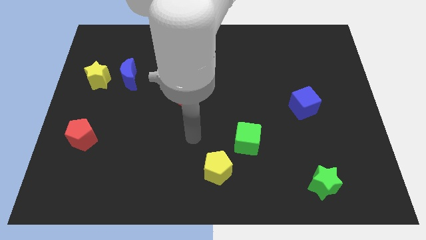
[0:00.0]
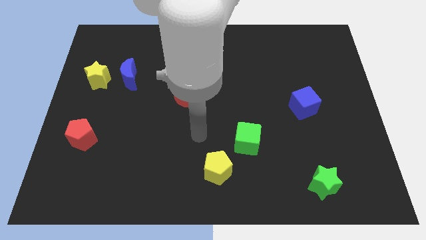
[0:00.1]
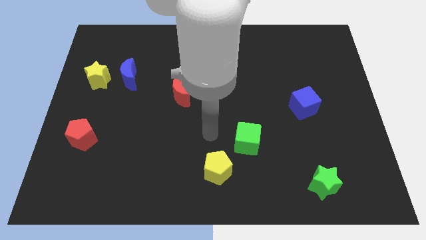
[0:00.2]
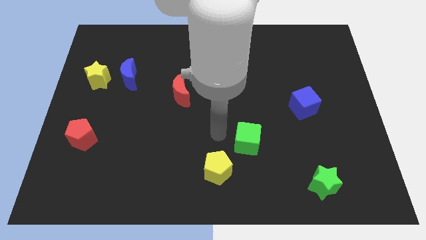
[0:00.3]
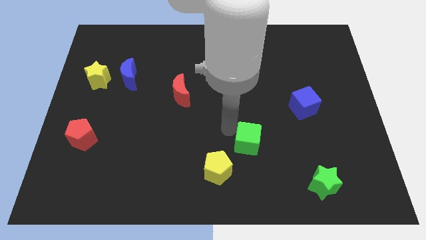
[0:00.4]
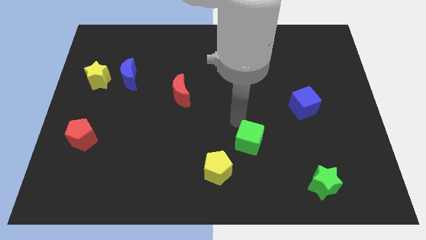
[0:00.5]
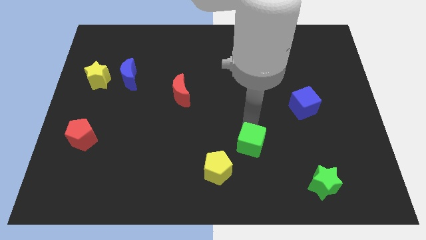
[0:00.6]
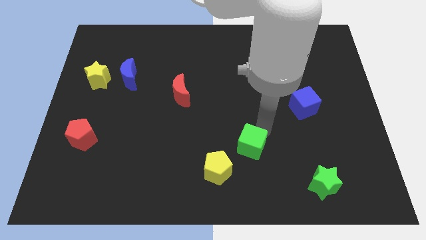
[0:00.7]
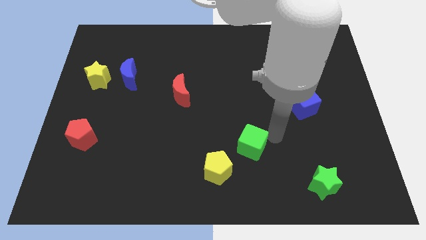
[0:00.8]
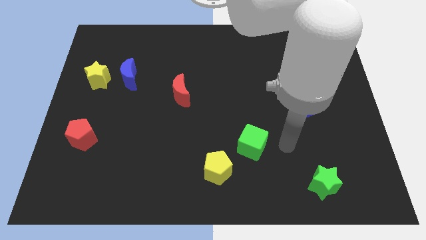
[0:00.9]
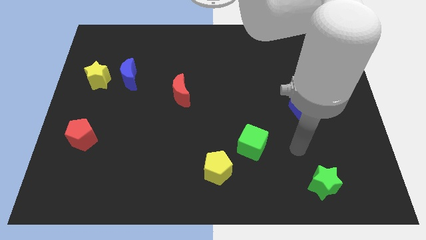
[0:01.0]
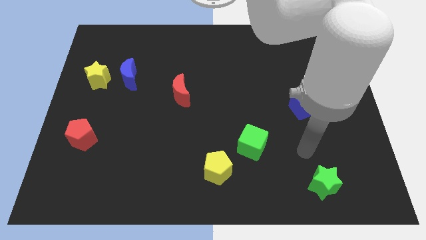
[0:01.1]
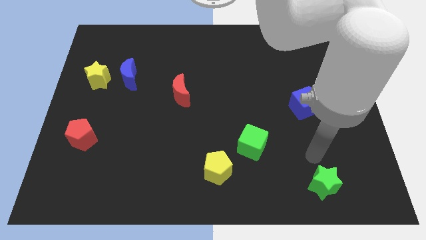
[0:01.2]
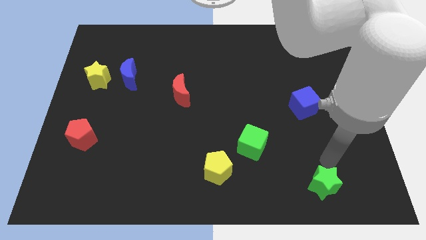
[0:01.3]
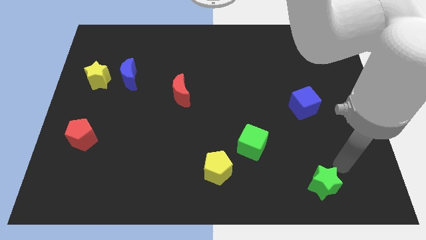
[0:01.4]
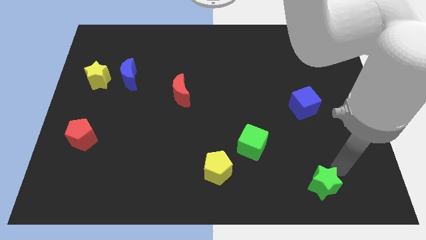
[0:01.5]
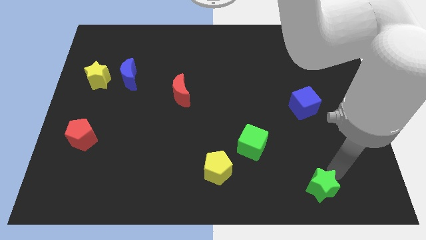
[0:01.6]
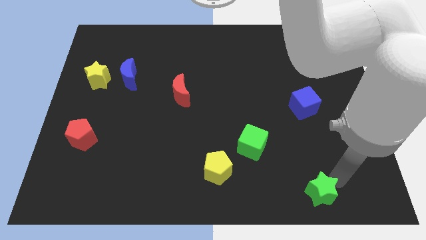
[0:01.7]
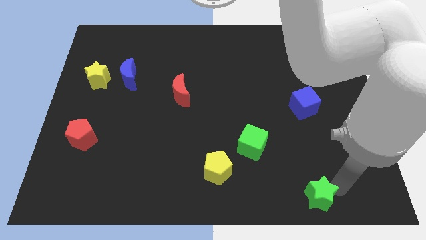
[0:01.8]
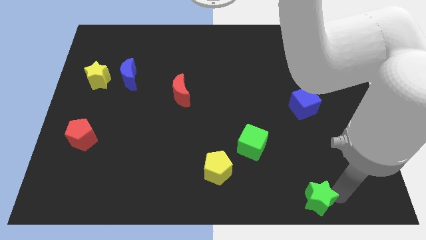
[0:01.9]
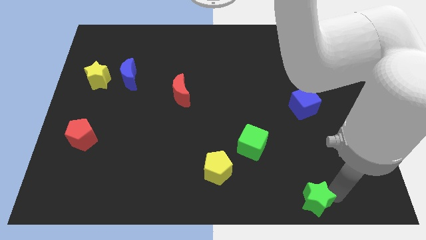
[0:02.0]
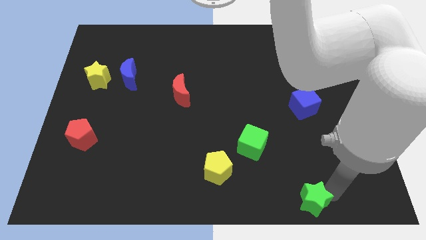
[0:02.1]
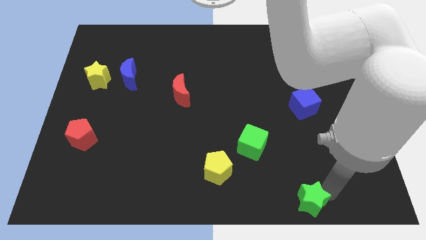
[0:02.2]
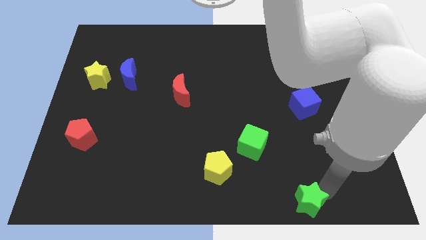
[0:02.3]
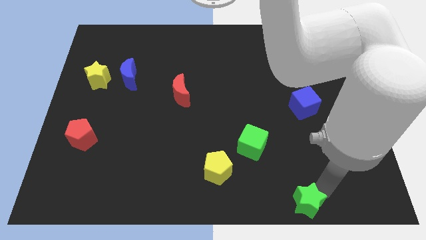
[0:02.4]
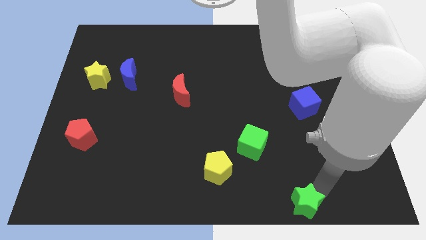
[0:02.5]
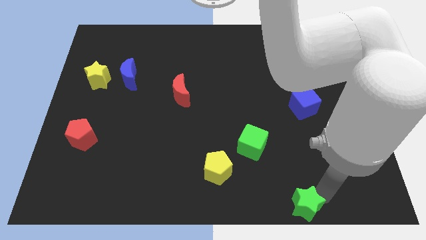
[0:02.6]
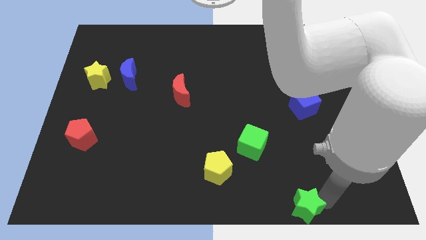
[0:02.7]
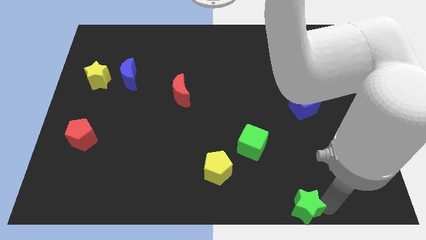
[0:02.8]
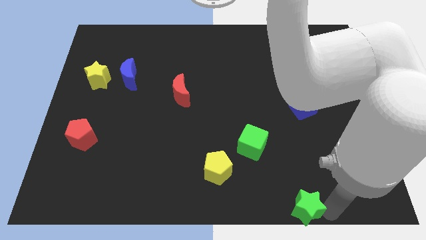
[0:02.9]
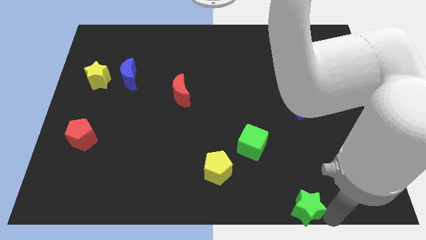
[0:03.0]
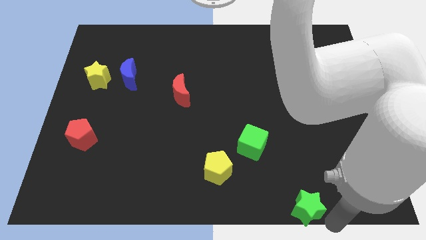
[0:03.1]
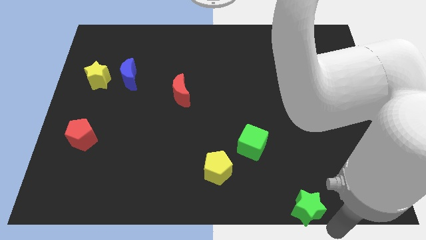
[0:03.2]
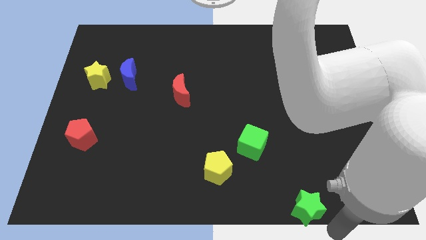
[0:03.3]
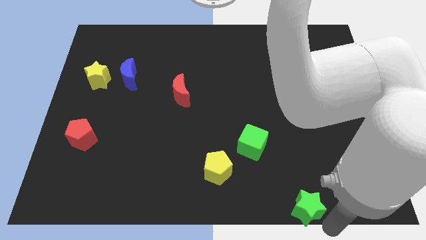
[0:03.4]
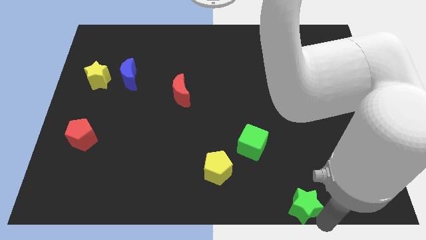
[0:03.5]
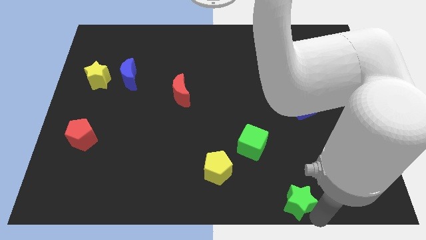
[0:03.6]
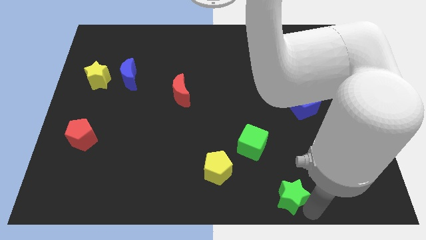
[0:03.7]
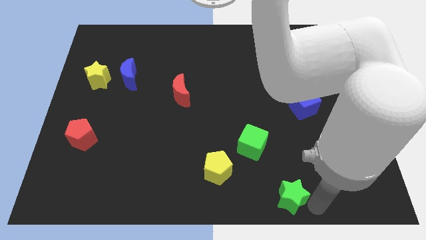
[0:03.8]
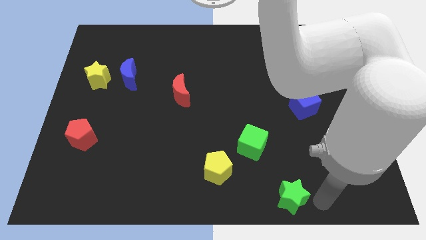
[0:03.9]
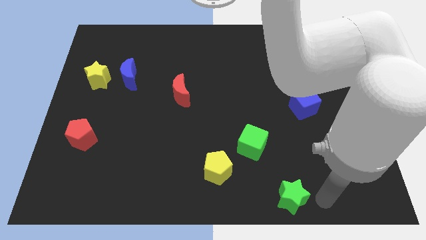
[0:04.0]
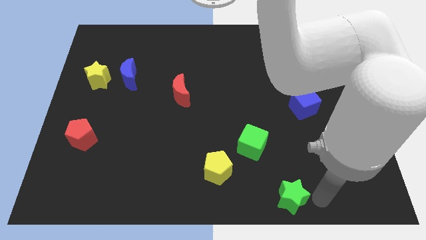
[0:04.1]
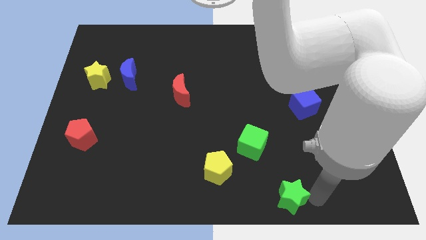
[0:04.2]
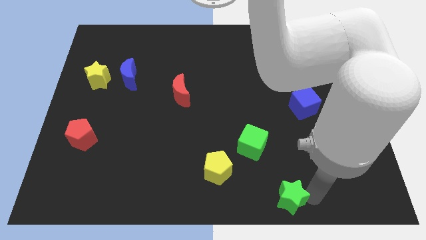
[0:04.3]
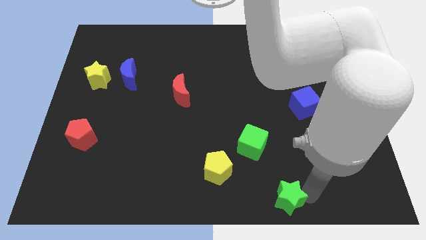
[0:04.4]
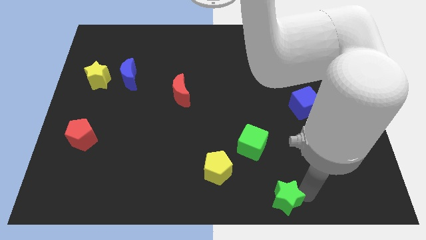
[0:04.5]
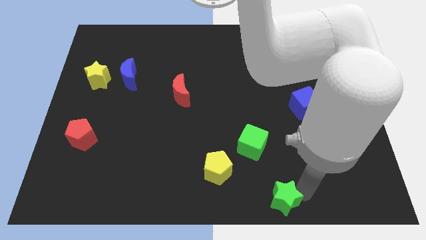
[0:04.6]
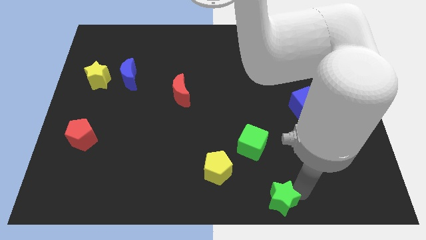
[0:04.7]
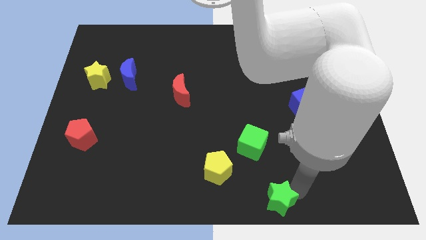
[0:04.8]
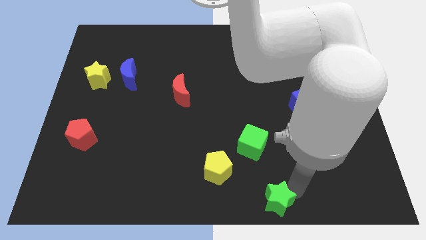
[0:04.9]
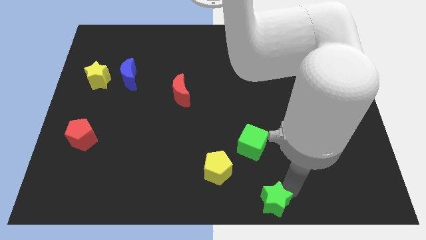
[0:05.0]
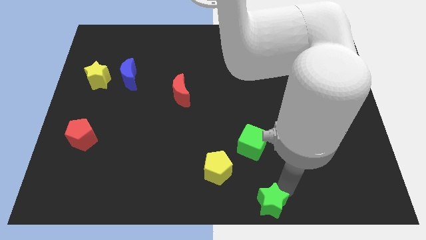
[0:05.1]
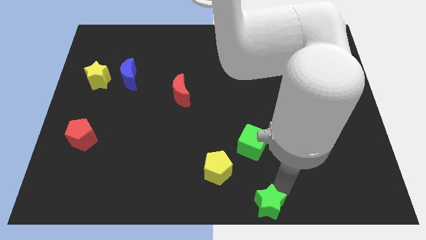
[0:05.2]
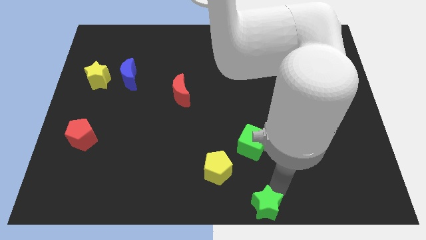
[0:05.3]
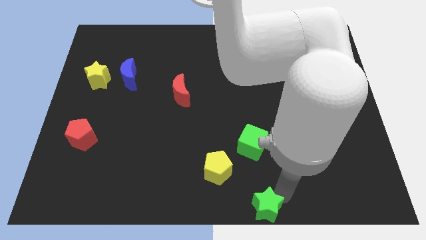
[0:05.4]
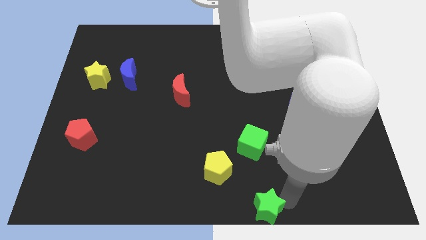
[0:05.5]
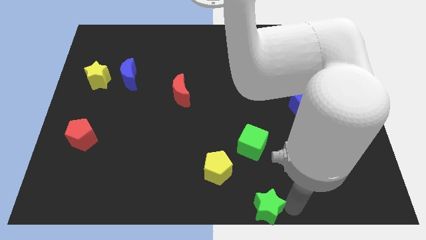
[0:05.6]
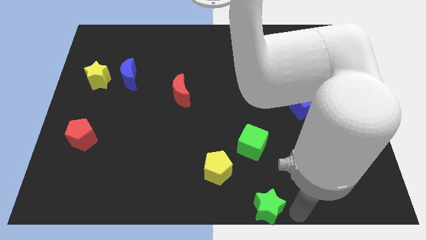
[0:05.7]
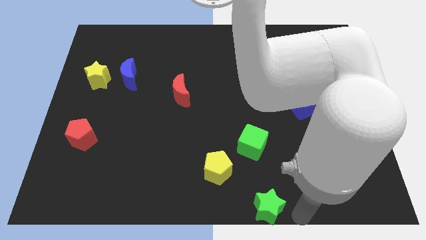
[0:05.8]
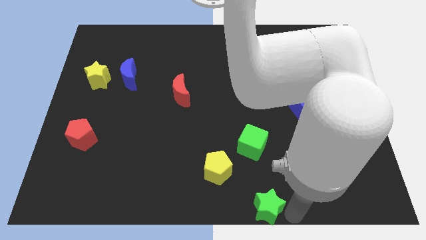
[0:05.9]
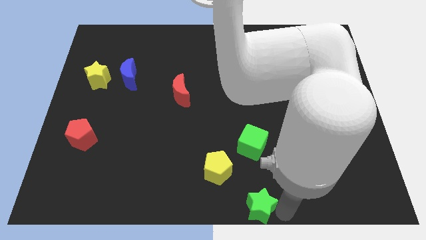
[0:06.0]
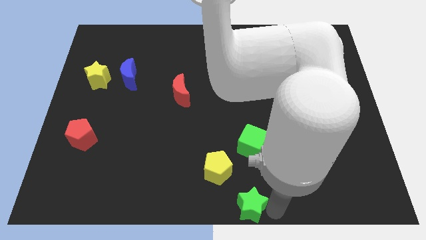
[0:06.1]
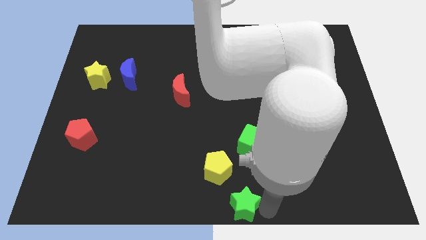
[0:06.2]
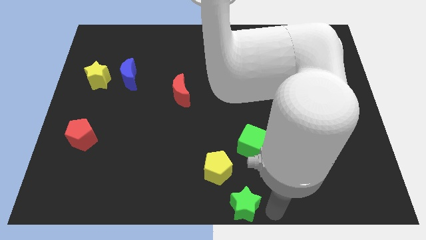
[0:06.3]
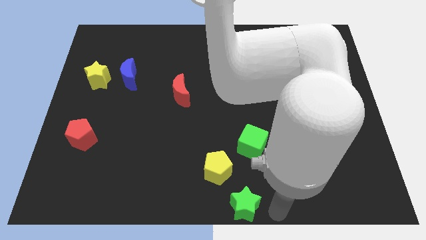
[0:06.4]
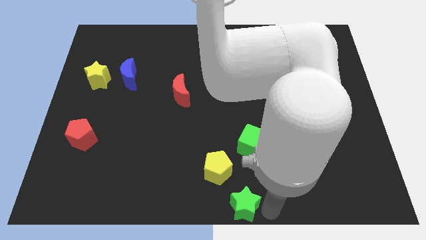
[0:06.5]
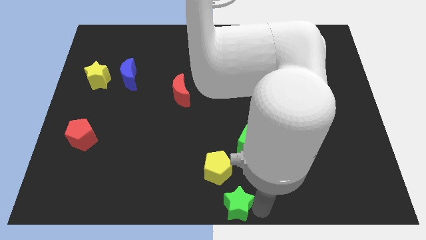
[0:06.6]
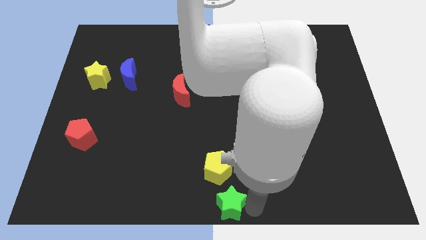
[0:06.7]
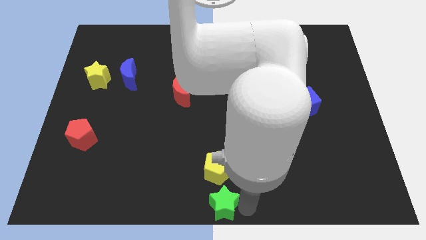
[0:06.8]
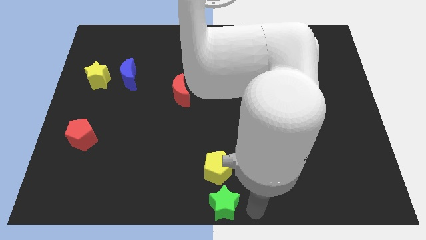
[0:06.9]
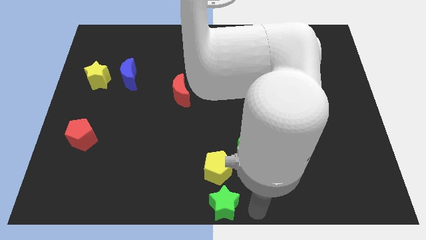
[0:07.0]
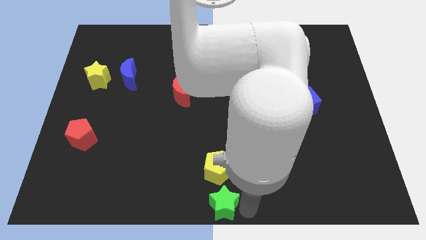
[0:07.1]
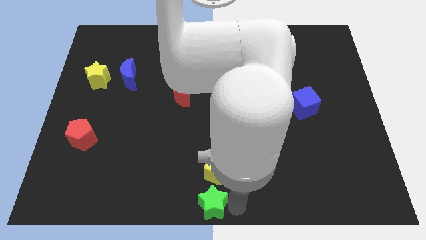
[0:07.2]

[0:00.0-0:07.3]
move the green star to the left

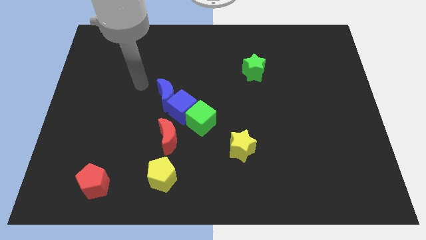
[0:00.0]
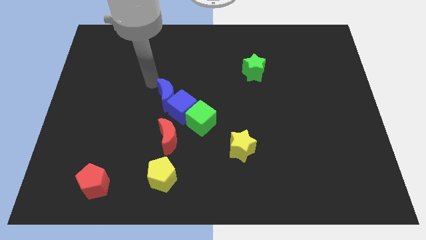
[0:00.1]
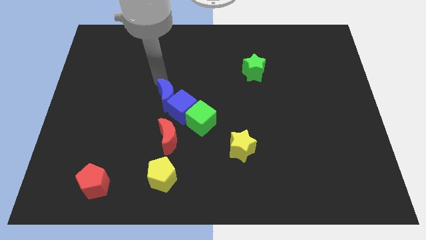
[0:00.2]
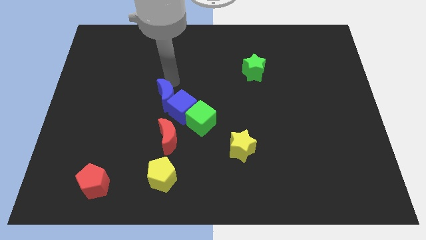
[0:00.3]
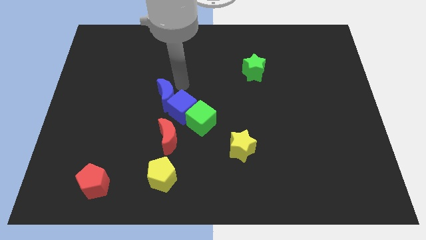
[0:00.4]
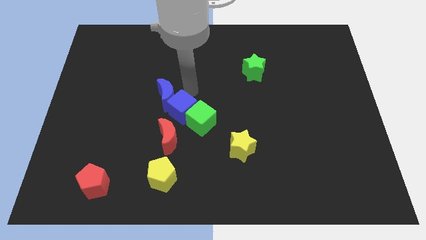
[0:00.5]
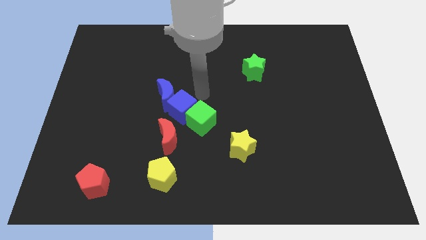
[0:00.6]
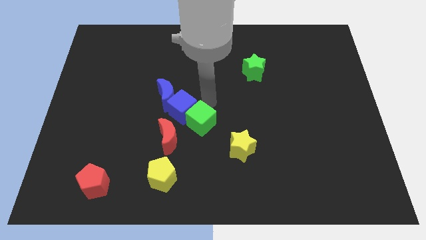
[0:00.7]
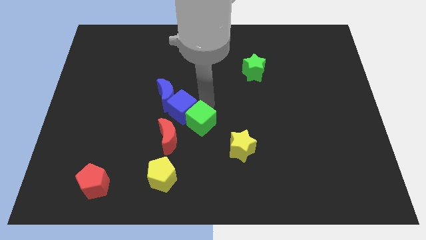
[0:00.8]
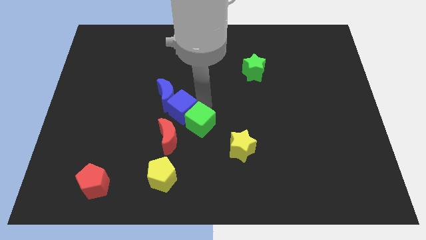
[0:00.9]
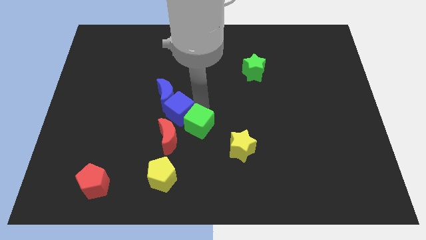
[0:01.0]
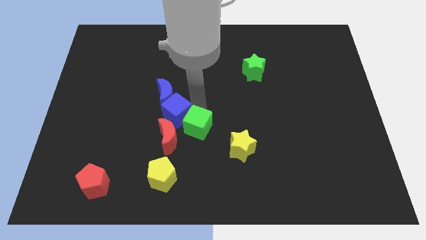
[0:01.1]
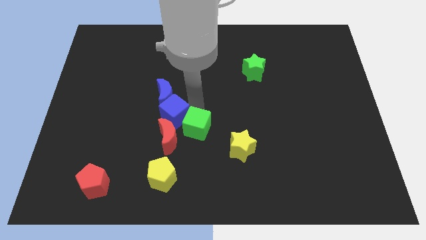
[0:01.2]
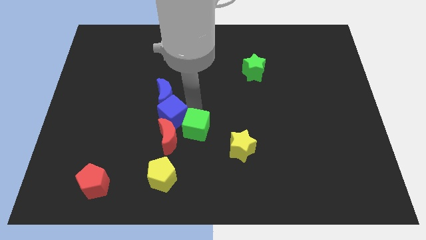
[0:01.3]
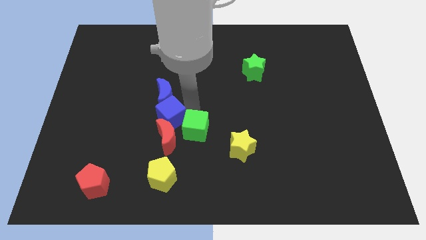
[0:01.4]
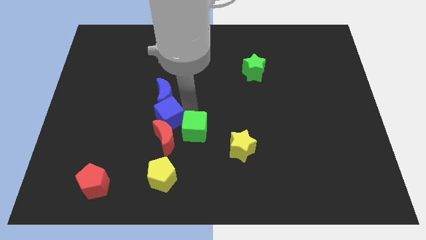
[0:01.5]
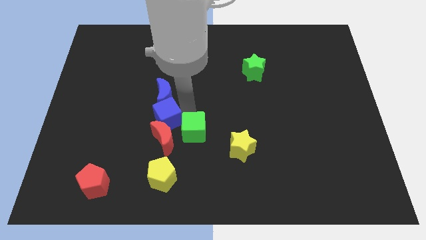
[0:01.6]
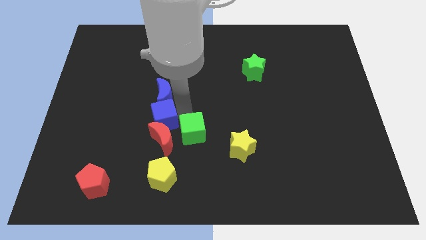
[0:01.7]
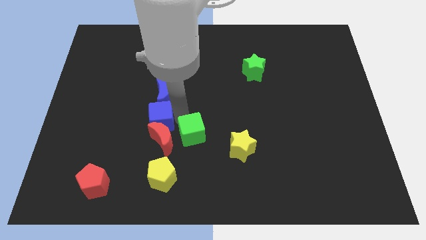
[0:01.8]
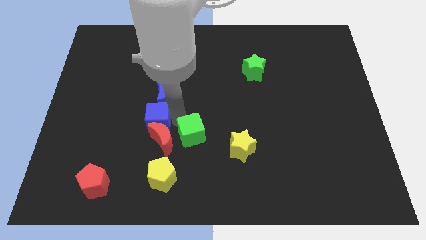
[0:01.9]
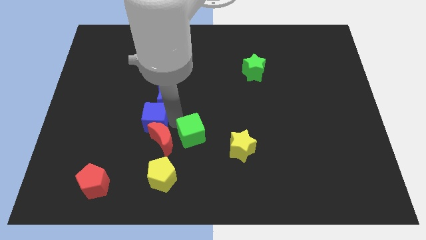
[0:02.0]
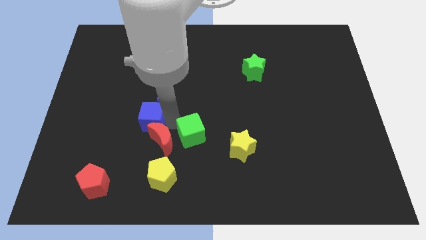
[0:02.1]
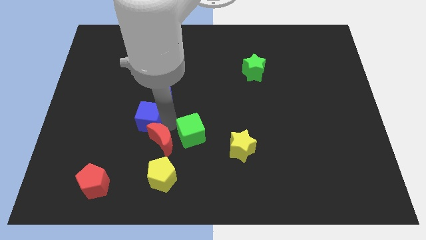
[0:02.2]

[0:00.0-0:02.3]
move the blue cube a bit to the left
